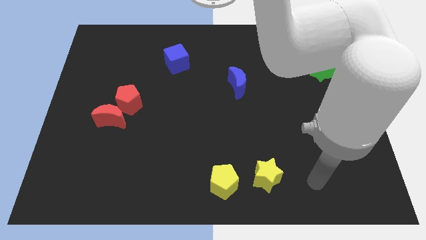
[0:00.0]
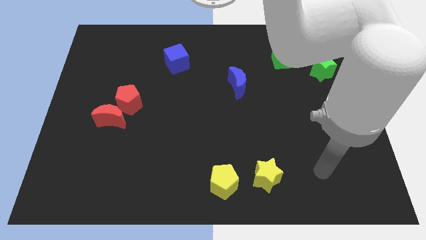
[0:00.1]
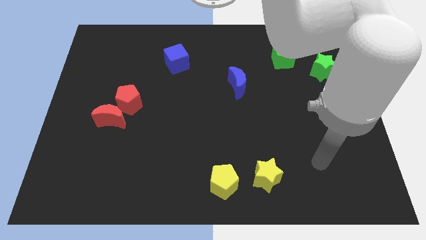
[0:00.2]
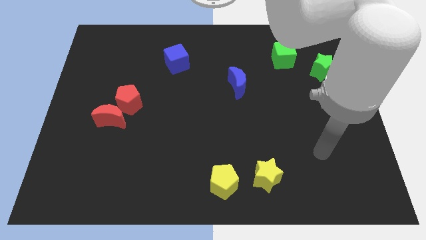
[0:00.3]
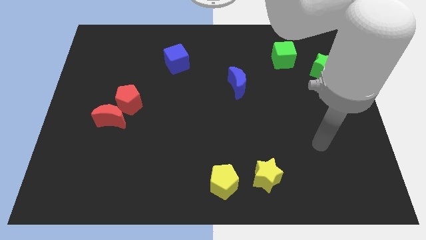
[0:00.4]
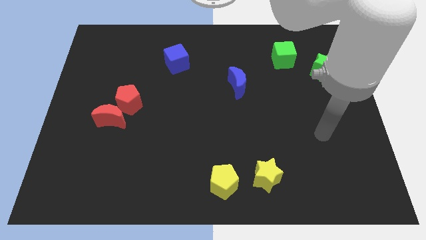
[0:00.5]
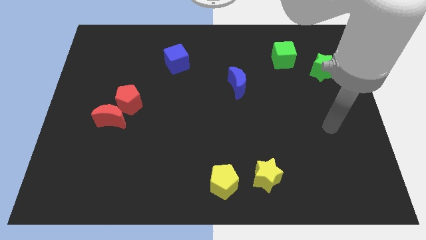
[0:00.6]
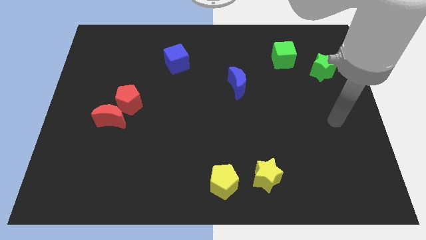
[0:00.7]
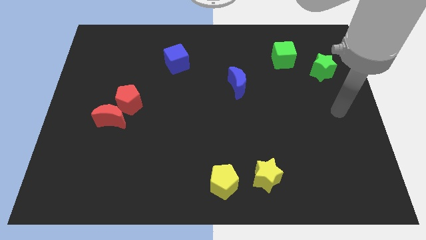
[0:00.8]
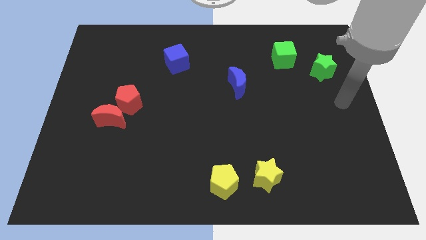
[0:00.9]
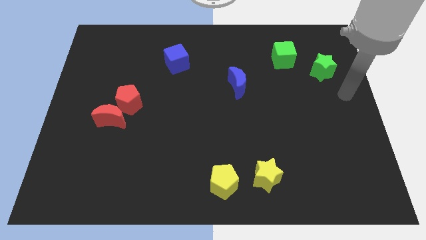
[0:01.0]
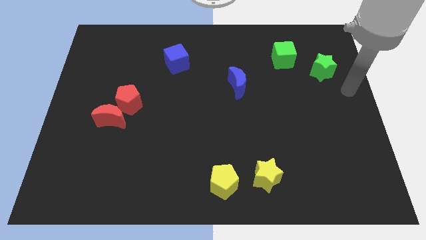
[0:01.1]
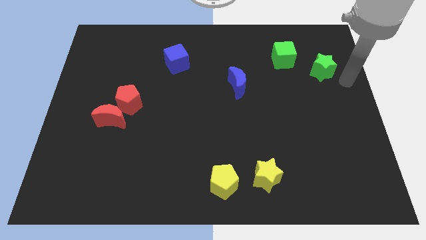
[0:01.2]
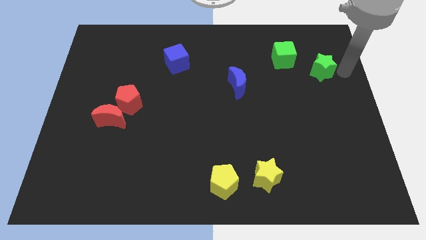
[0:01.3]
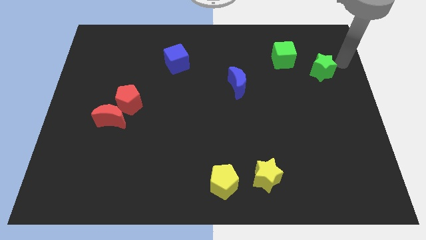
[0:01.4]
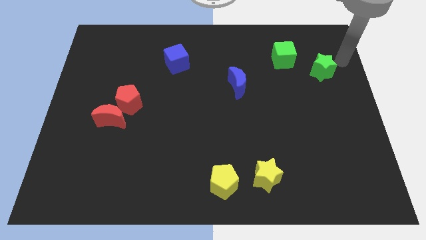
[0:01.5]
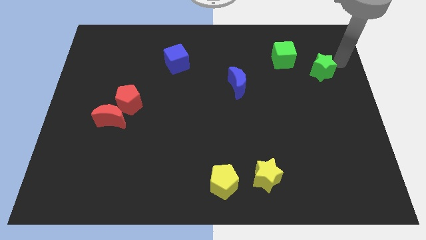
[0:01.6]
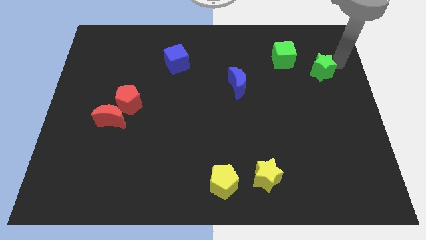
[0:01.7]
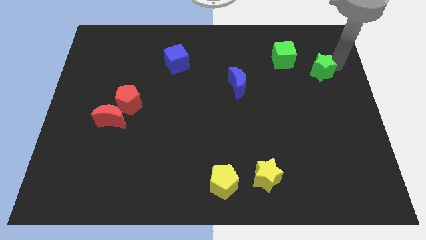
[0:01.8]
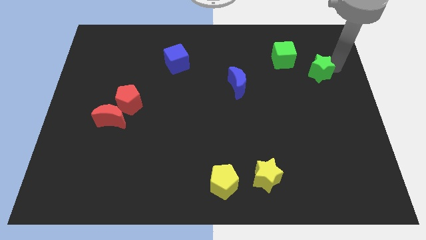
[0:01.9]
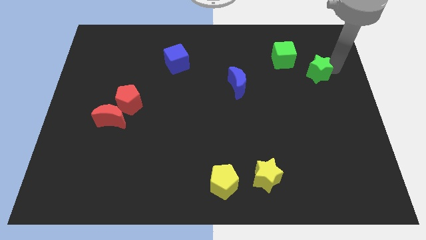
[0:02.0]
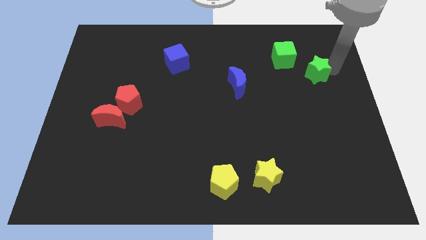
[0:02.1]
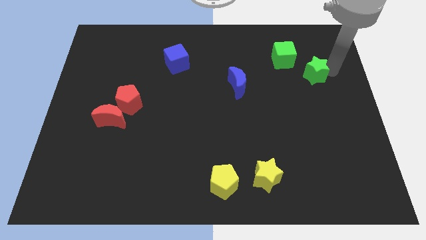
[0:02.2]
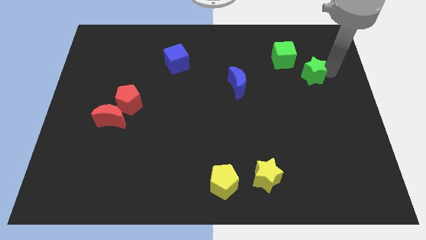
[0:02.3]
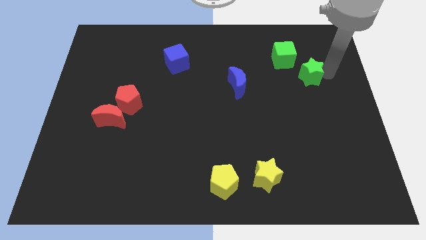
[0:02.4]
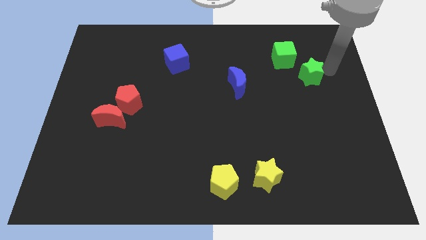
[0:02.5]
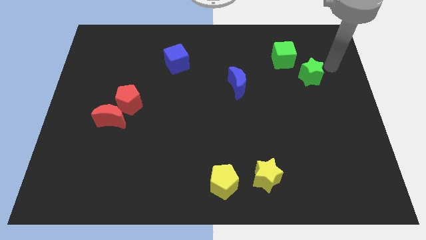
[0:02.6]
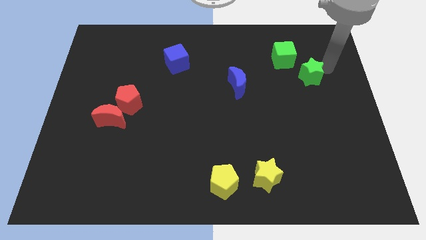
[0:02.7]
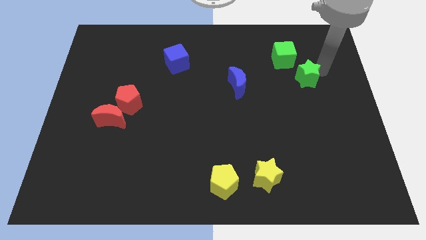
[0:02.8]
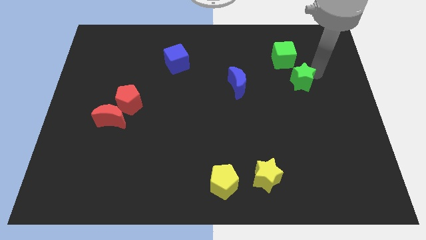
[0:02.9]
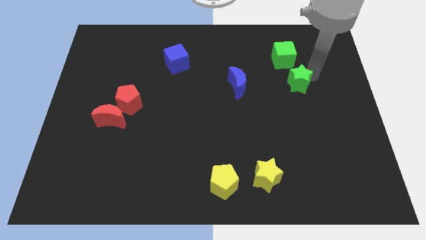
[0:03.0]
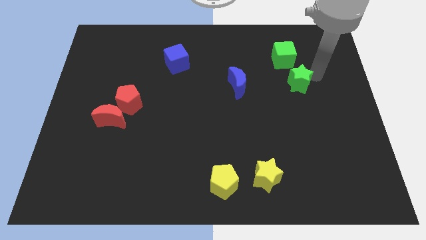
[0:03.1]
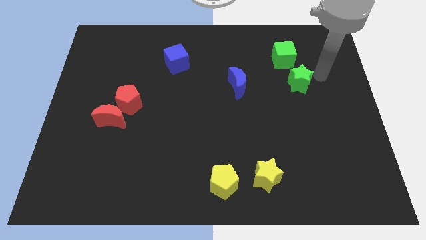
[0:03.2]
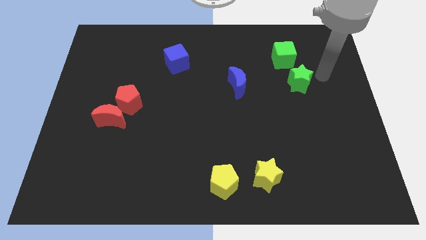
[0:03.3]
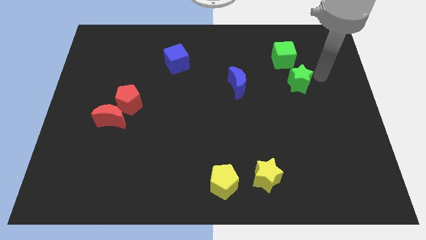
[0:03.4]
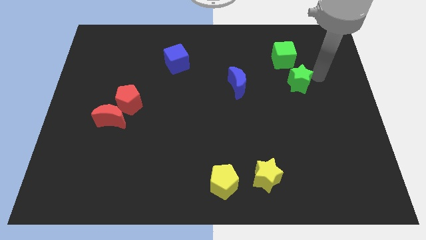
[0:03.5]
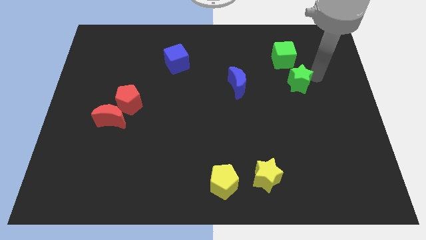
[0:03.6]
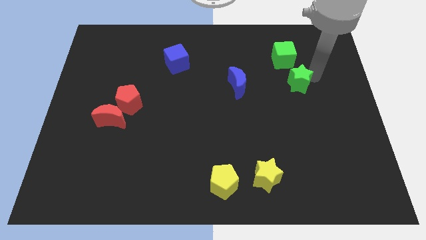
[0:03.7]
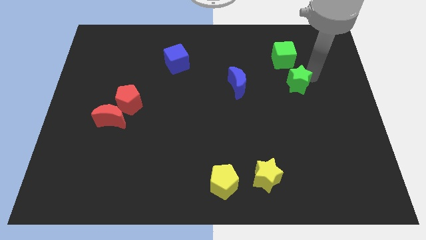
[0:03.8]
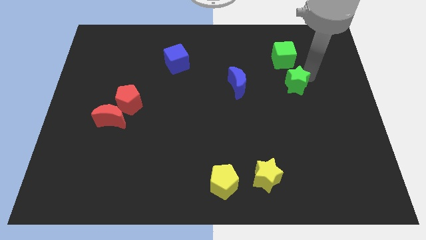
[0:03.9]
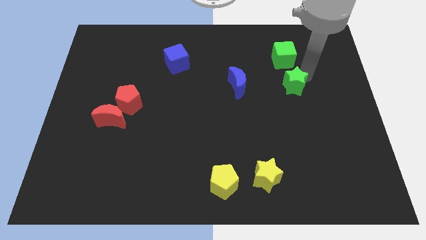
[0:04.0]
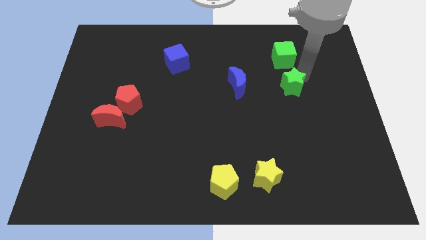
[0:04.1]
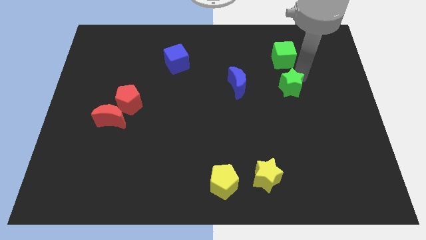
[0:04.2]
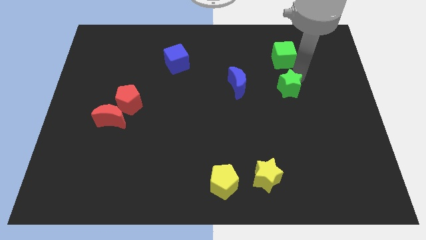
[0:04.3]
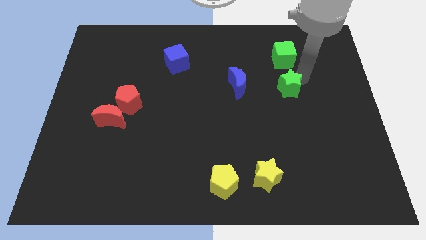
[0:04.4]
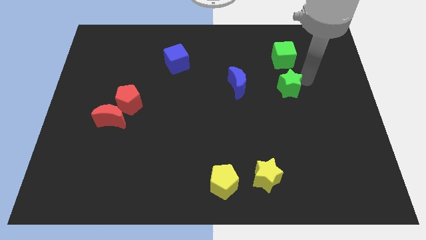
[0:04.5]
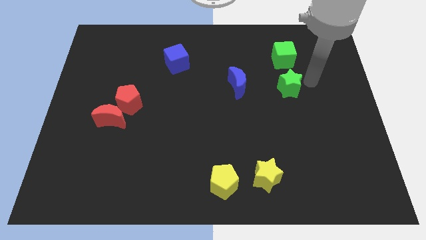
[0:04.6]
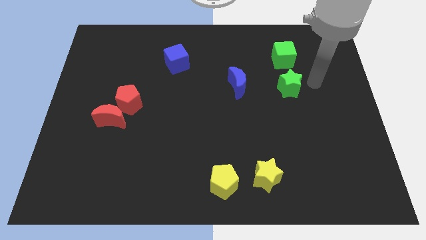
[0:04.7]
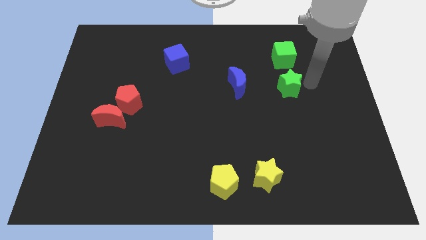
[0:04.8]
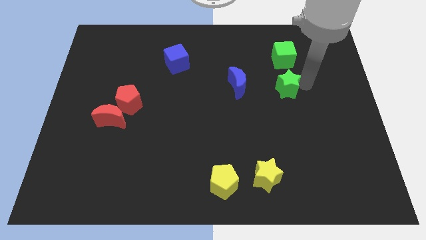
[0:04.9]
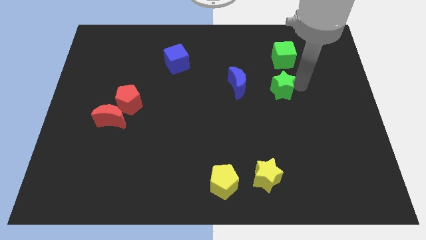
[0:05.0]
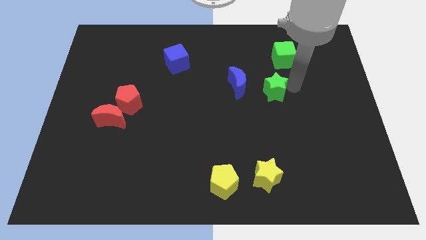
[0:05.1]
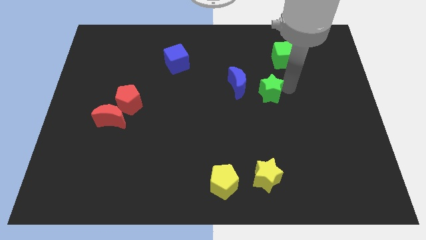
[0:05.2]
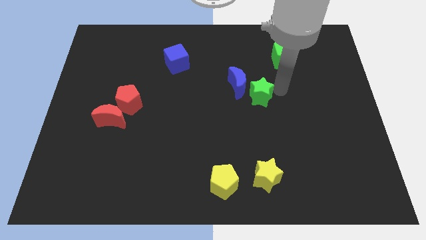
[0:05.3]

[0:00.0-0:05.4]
push the green star to the middle

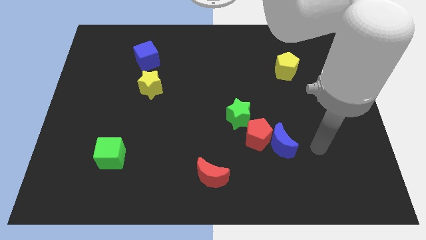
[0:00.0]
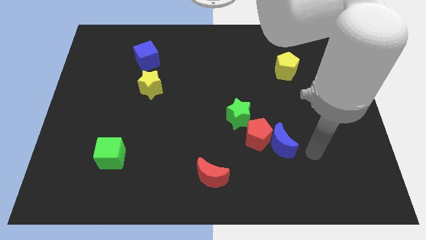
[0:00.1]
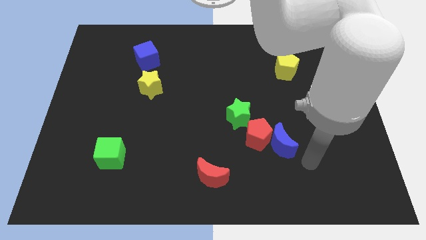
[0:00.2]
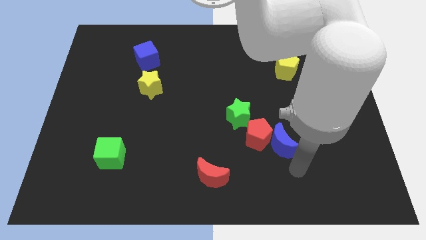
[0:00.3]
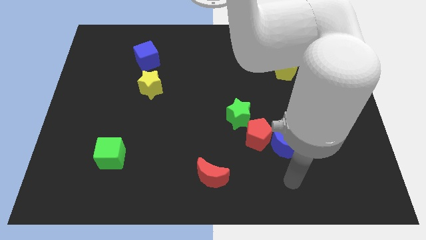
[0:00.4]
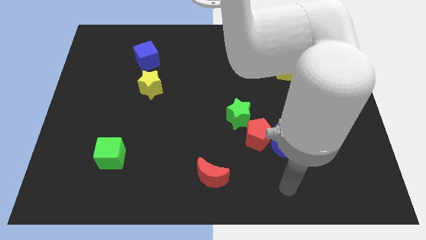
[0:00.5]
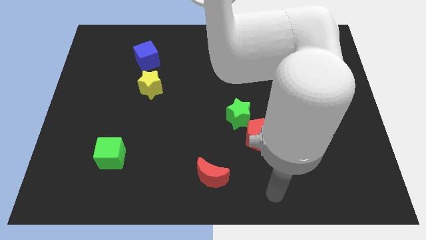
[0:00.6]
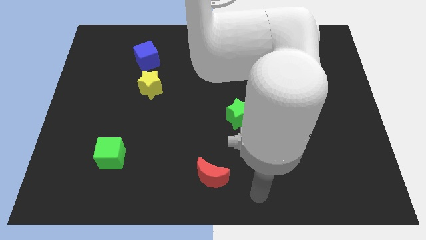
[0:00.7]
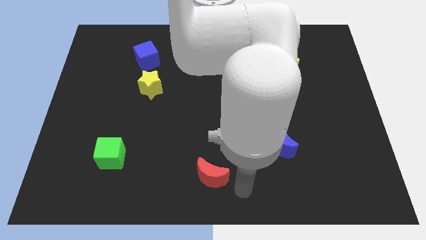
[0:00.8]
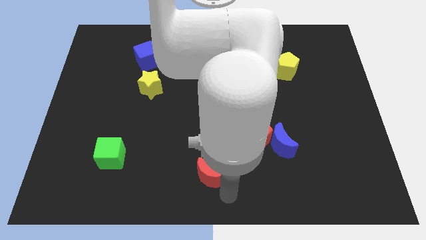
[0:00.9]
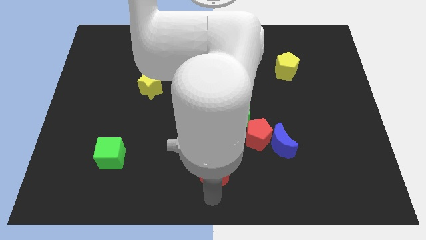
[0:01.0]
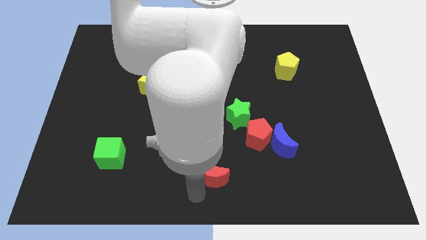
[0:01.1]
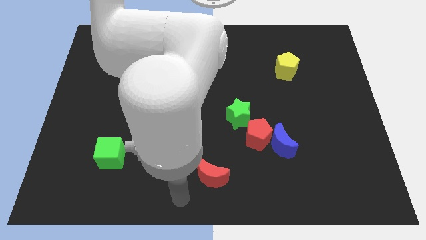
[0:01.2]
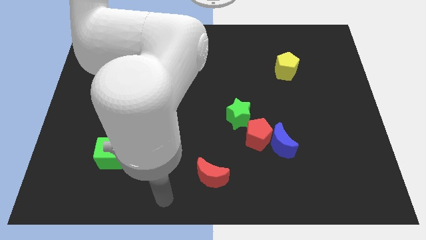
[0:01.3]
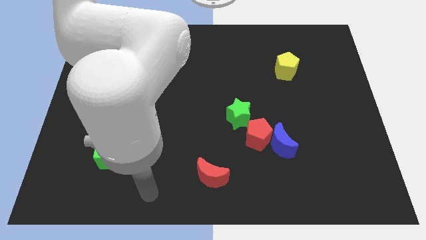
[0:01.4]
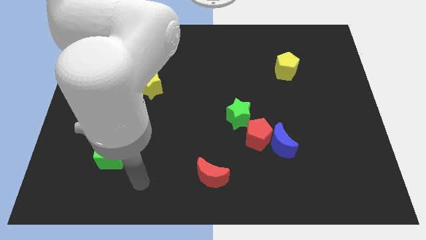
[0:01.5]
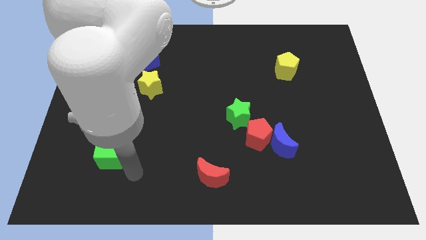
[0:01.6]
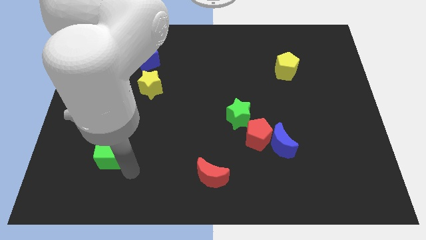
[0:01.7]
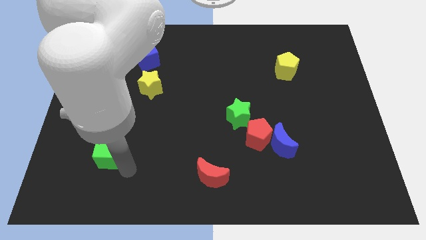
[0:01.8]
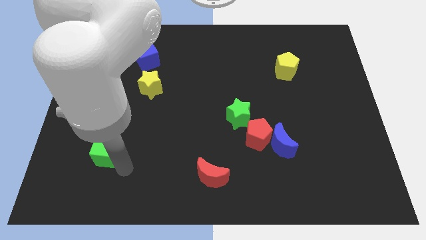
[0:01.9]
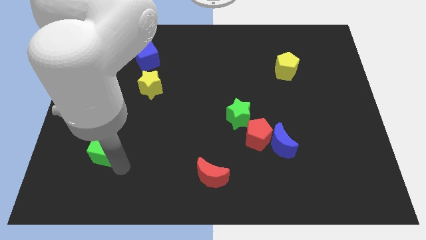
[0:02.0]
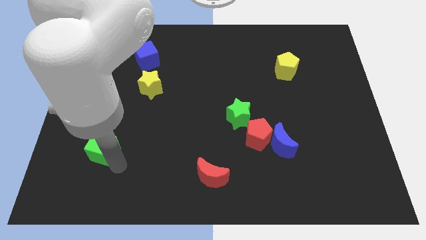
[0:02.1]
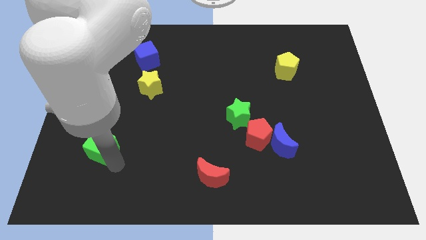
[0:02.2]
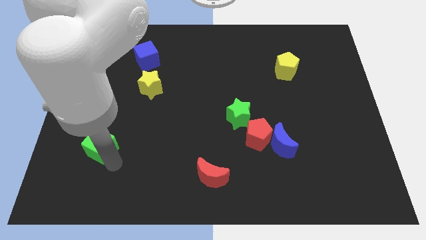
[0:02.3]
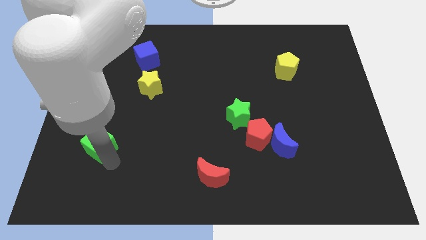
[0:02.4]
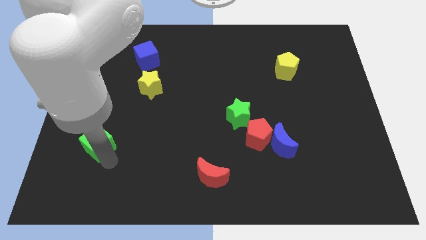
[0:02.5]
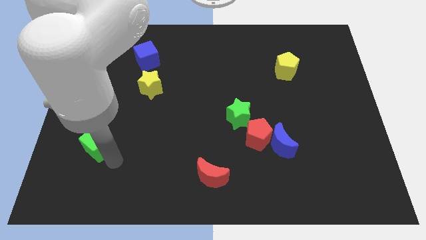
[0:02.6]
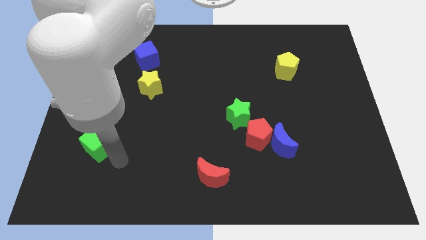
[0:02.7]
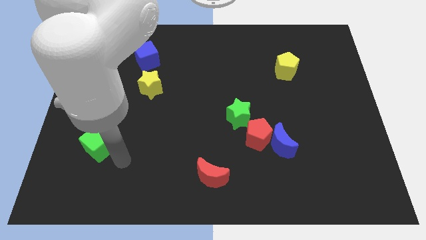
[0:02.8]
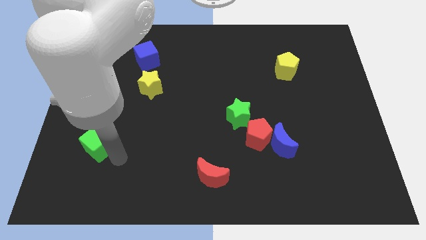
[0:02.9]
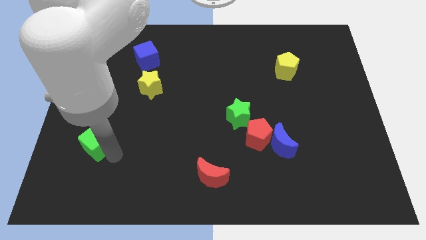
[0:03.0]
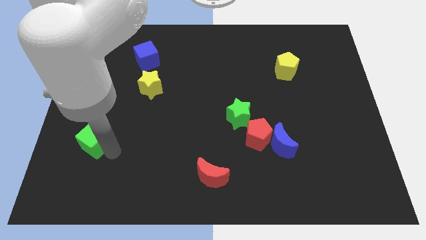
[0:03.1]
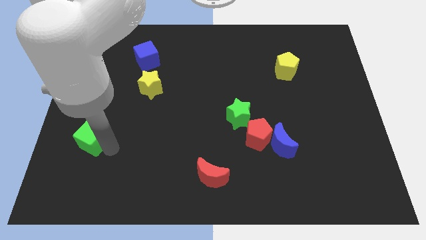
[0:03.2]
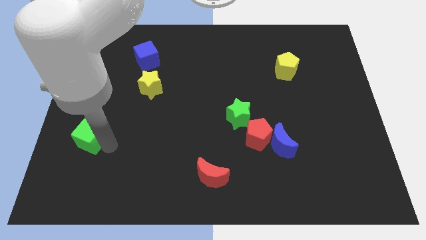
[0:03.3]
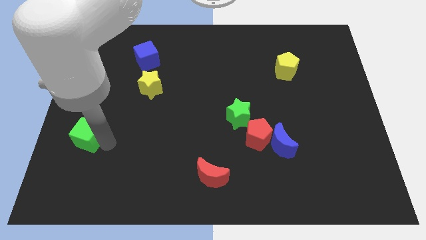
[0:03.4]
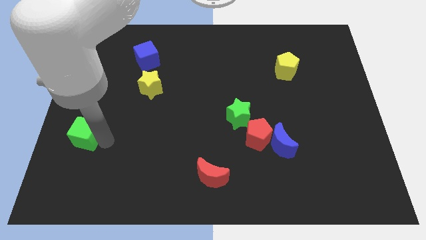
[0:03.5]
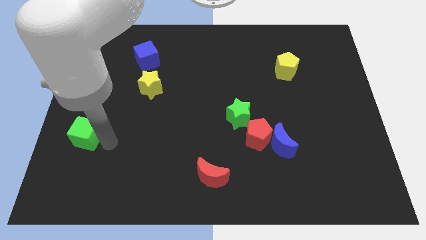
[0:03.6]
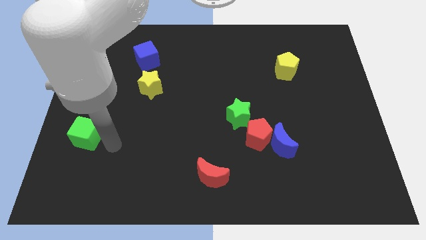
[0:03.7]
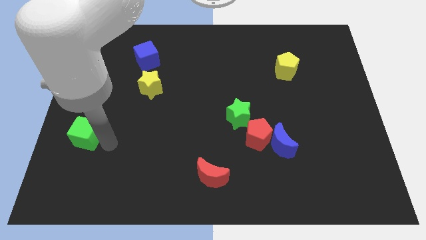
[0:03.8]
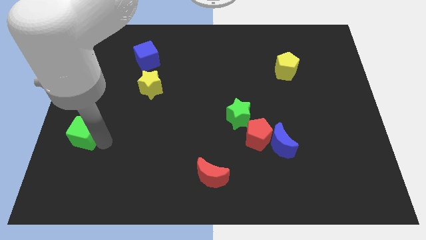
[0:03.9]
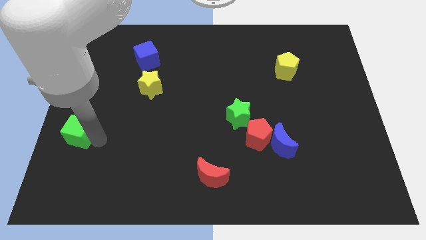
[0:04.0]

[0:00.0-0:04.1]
move the green cube to the left side
